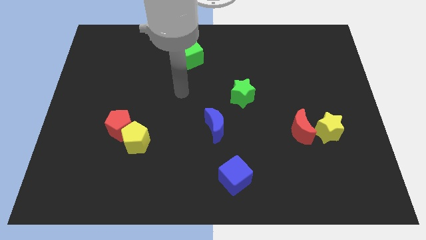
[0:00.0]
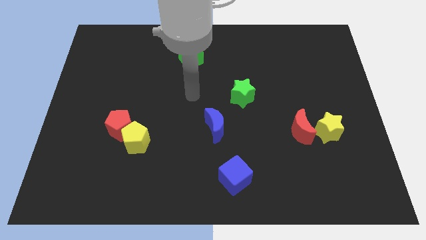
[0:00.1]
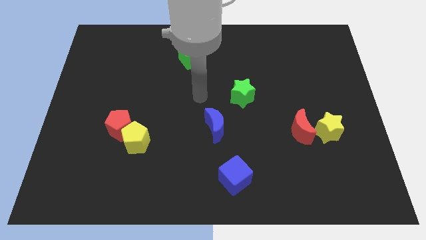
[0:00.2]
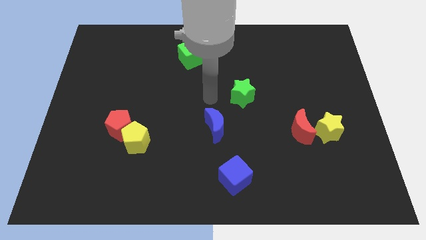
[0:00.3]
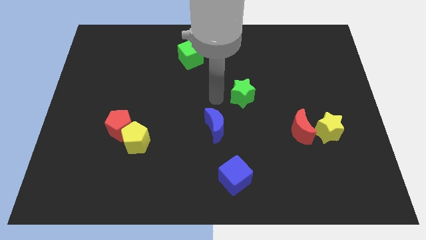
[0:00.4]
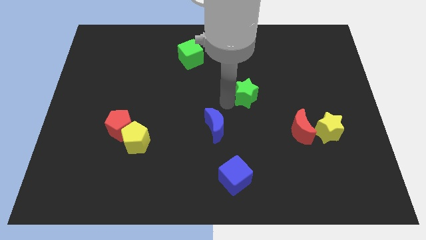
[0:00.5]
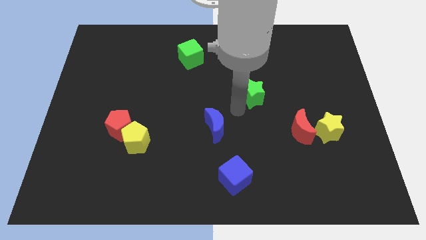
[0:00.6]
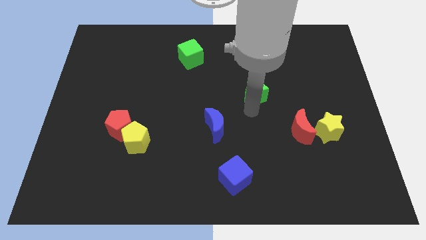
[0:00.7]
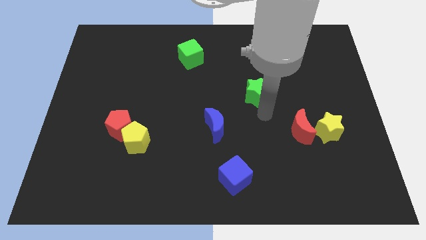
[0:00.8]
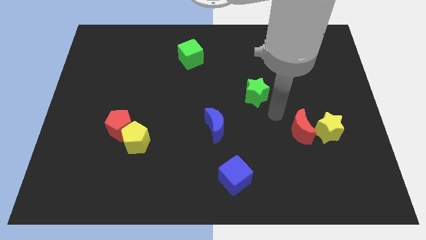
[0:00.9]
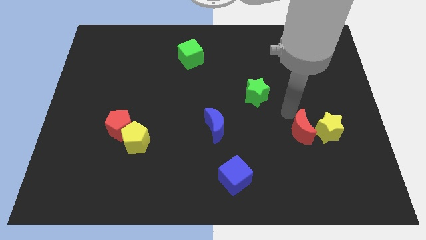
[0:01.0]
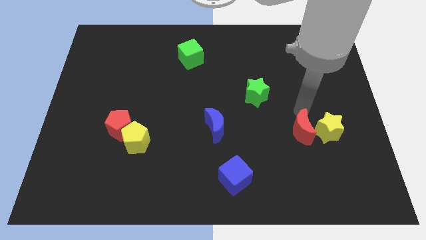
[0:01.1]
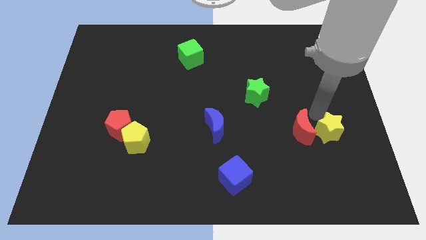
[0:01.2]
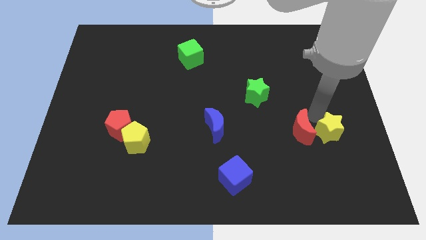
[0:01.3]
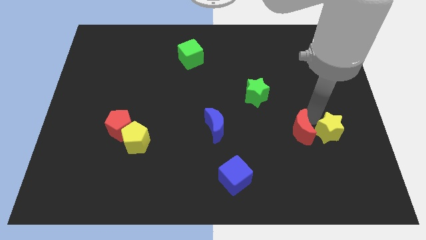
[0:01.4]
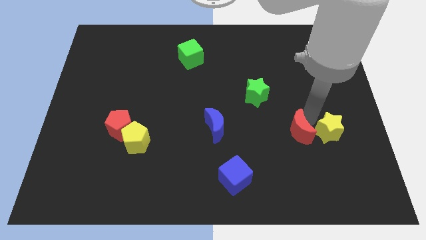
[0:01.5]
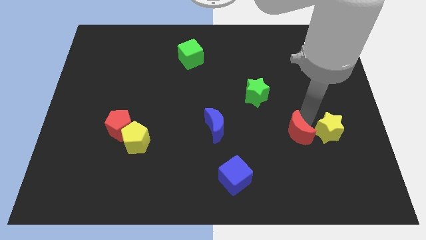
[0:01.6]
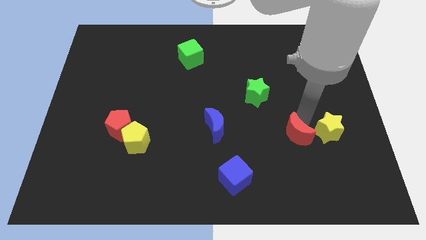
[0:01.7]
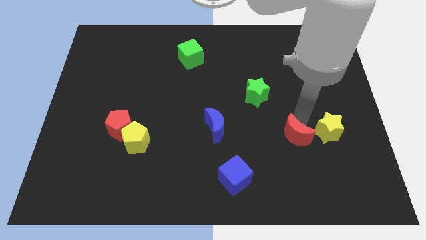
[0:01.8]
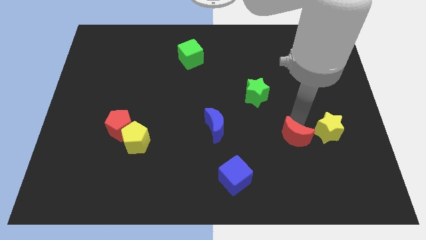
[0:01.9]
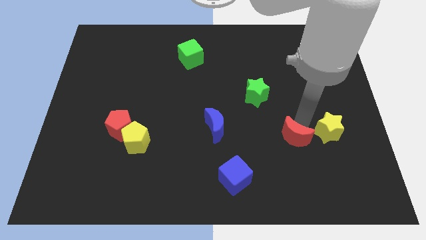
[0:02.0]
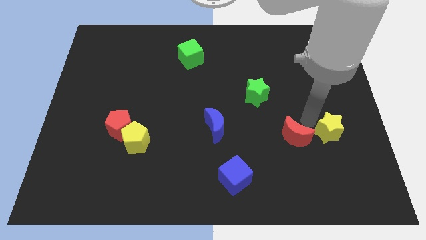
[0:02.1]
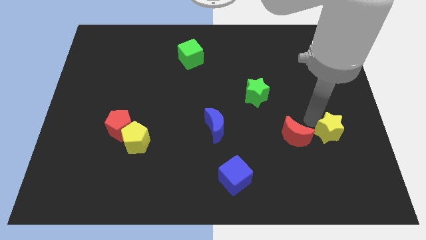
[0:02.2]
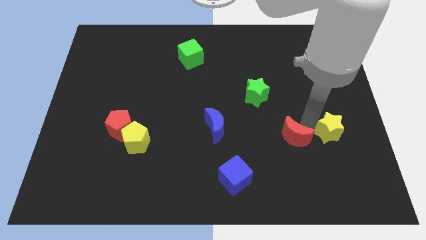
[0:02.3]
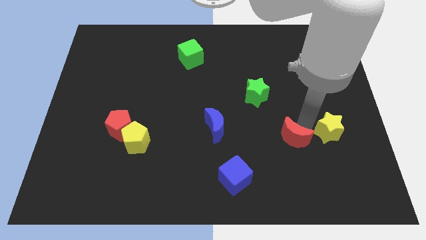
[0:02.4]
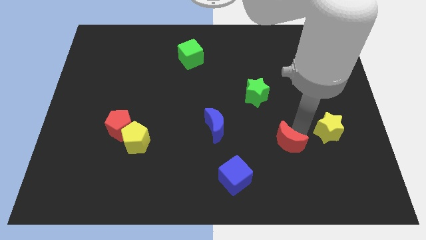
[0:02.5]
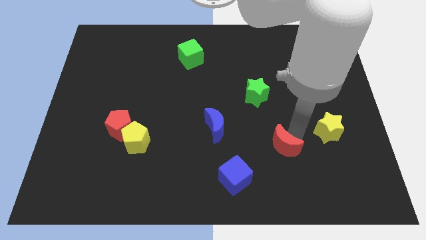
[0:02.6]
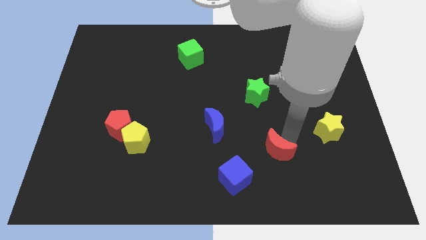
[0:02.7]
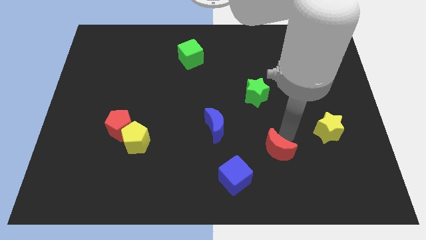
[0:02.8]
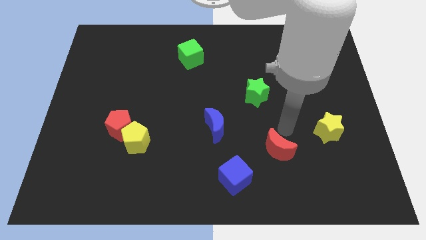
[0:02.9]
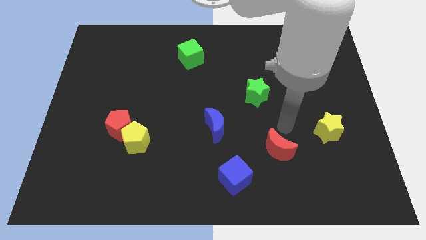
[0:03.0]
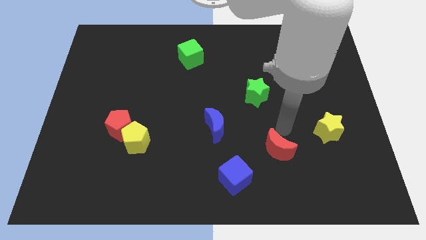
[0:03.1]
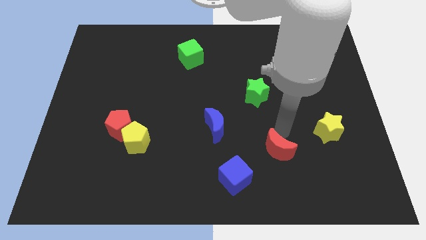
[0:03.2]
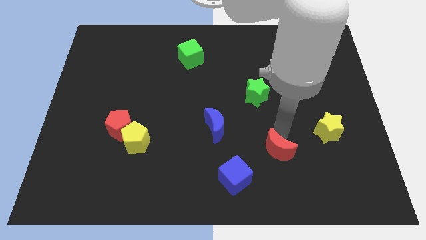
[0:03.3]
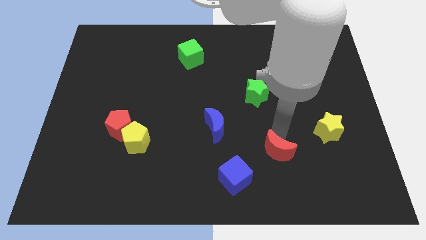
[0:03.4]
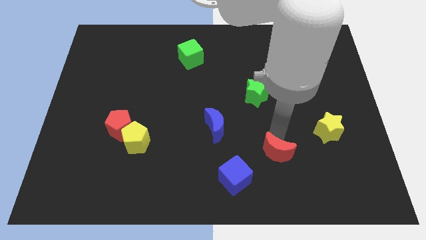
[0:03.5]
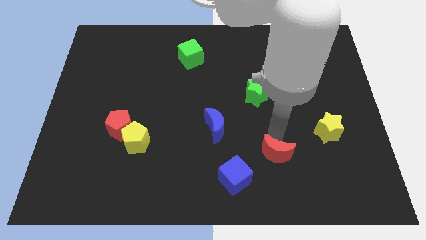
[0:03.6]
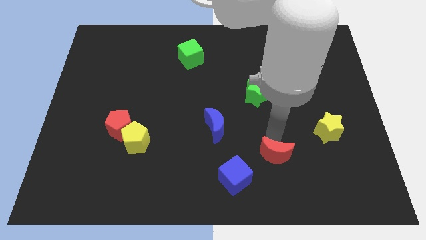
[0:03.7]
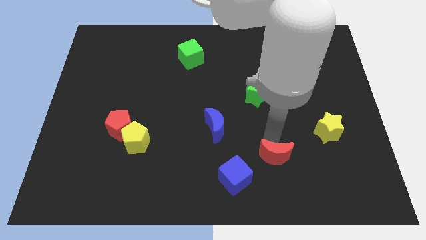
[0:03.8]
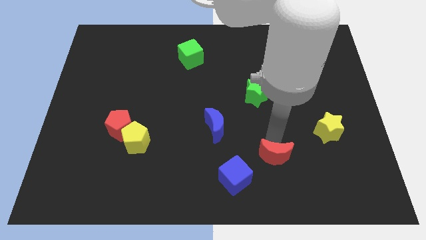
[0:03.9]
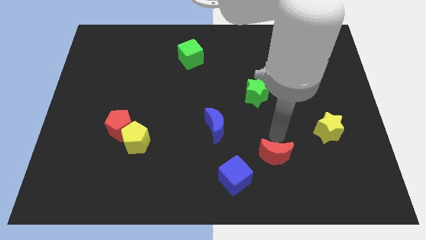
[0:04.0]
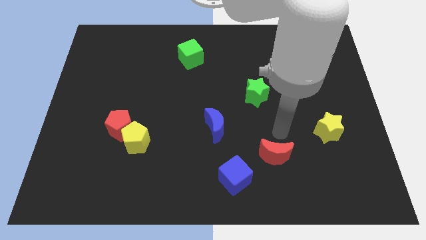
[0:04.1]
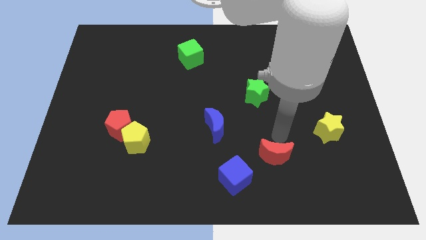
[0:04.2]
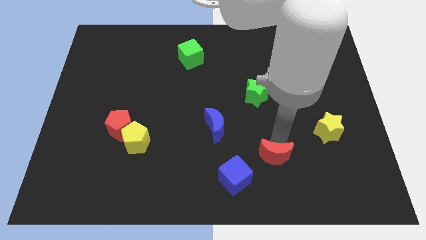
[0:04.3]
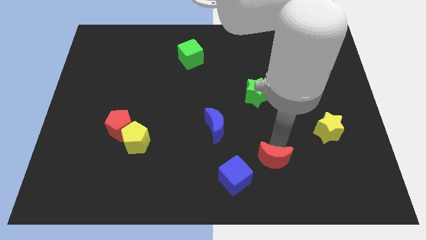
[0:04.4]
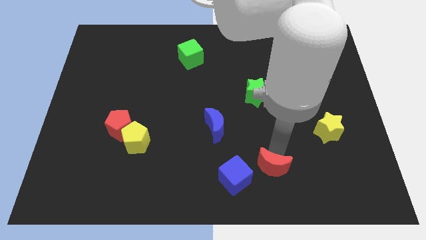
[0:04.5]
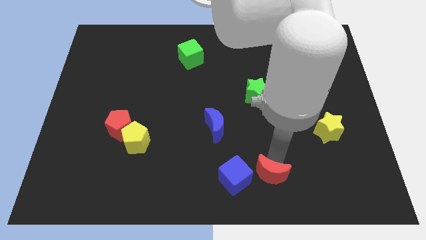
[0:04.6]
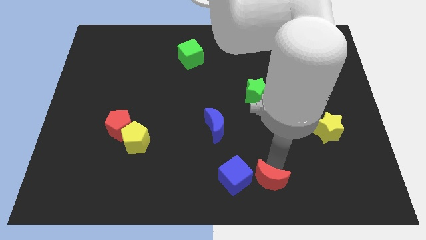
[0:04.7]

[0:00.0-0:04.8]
move the red moon to the bottom side

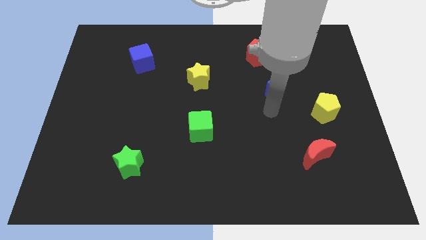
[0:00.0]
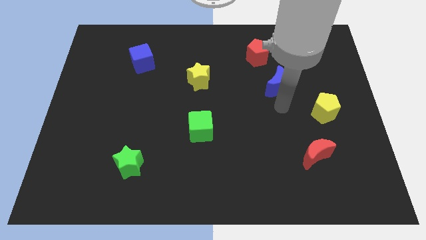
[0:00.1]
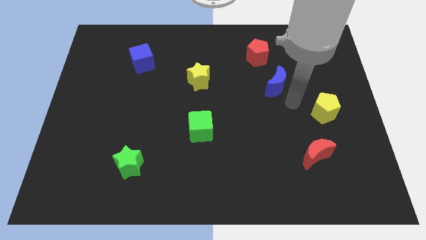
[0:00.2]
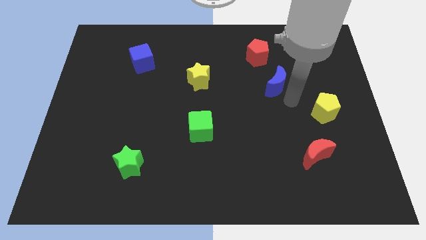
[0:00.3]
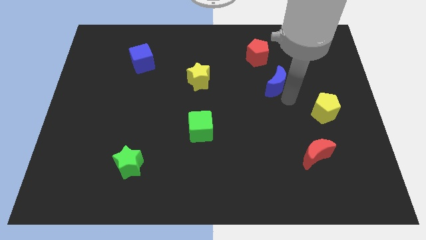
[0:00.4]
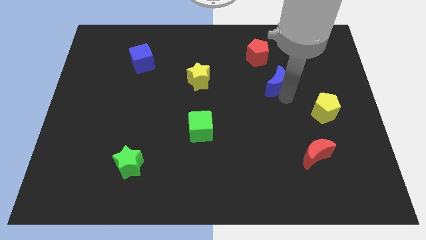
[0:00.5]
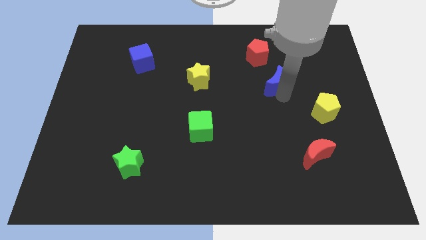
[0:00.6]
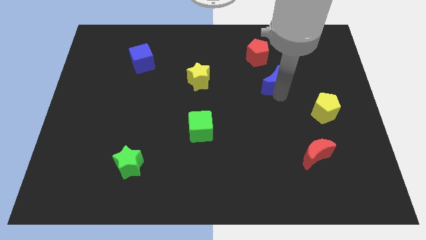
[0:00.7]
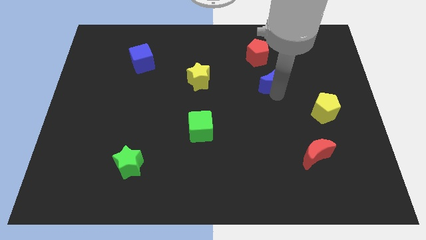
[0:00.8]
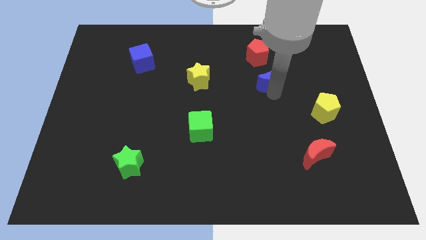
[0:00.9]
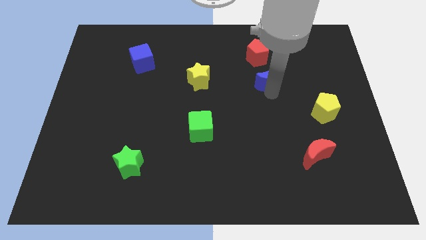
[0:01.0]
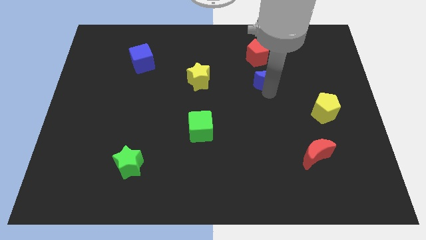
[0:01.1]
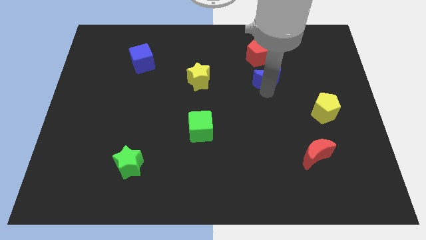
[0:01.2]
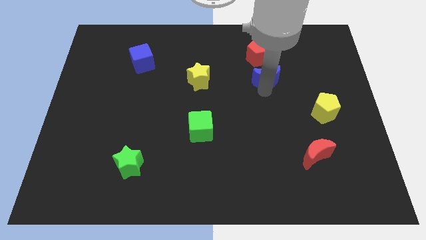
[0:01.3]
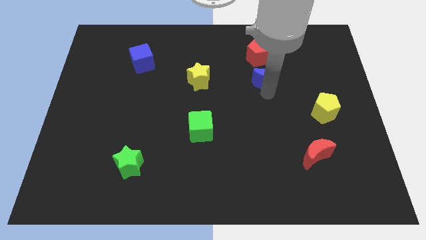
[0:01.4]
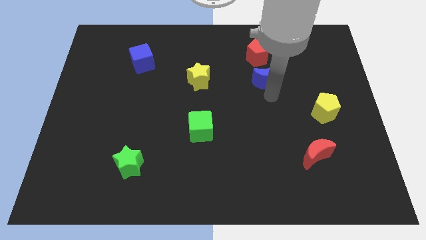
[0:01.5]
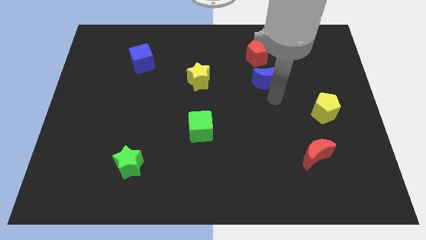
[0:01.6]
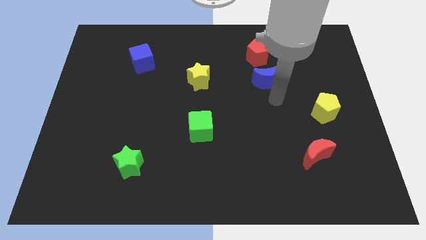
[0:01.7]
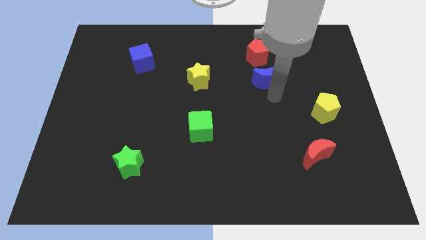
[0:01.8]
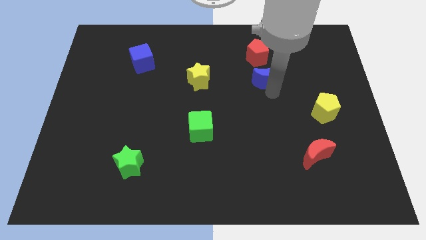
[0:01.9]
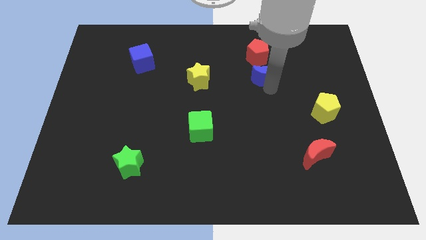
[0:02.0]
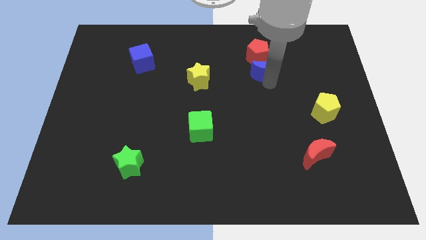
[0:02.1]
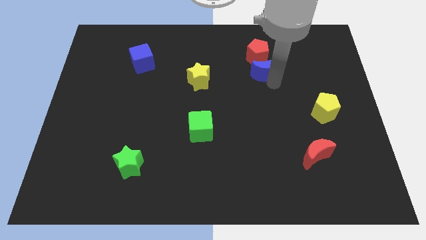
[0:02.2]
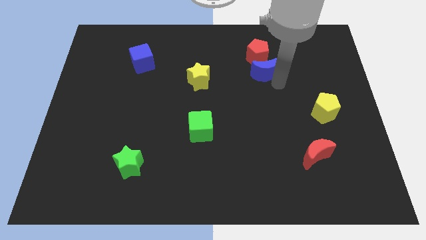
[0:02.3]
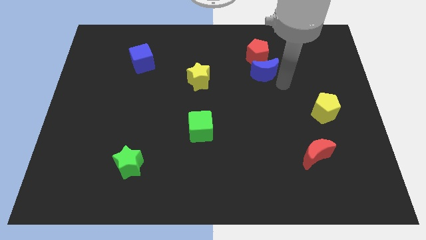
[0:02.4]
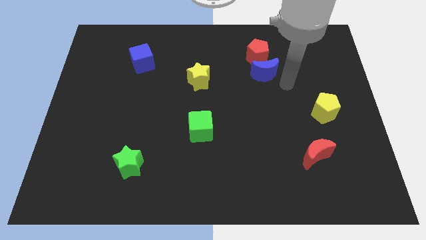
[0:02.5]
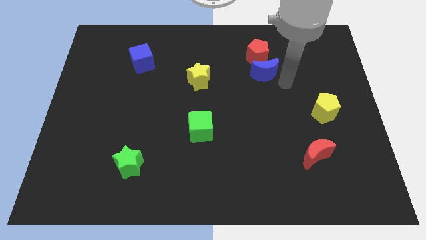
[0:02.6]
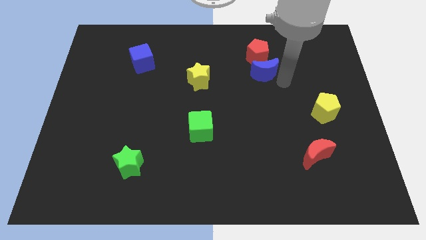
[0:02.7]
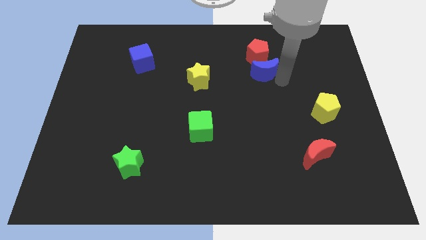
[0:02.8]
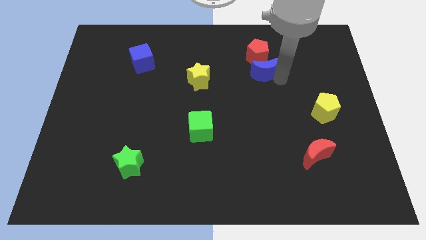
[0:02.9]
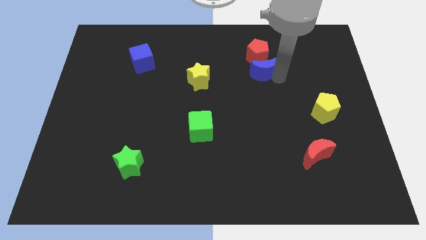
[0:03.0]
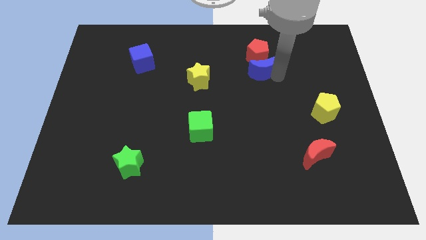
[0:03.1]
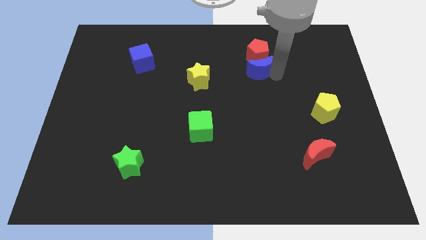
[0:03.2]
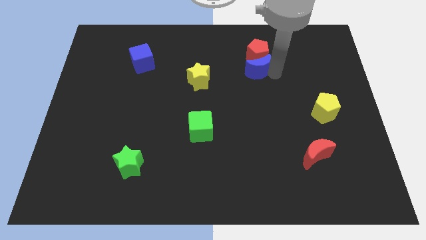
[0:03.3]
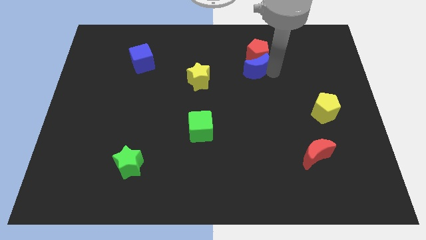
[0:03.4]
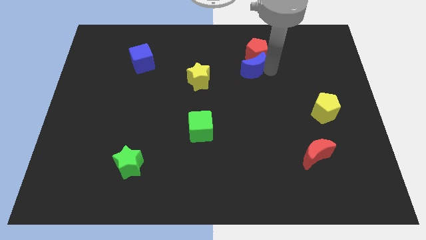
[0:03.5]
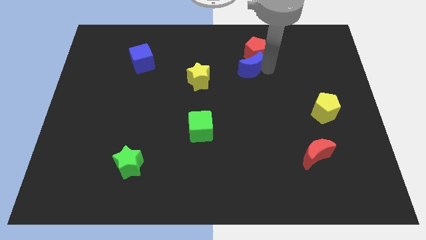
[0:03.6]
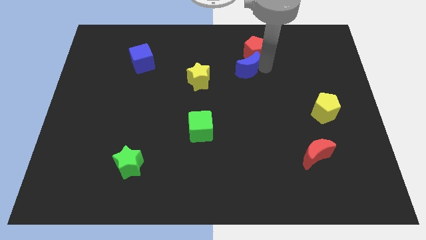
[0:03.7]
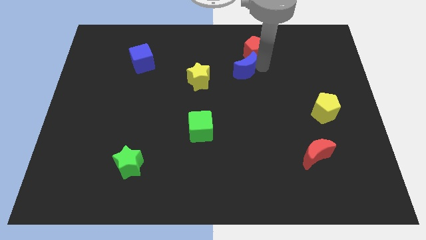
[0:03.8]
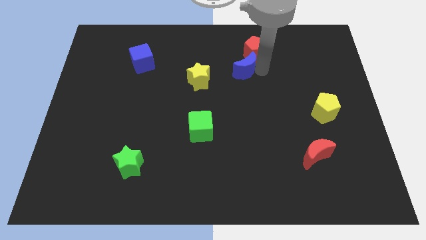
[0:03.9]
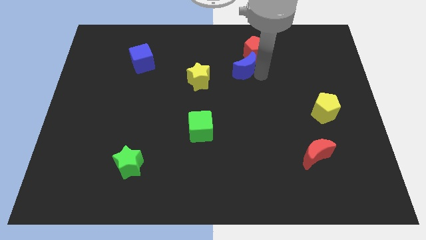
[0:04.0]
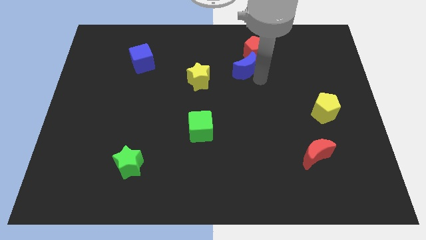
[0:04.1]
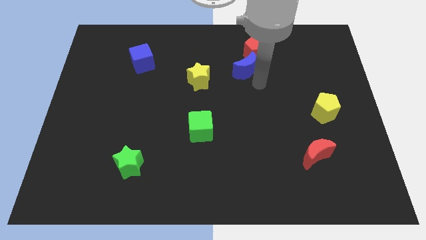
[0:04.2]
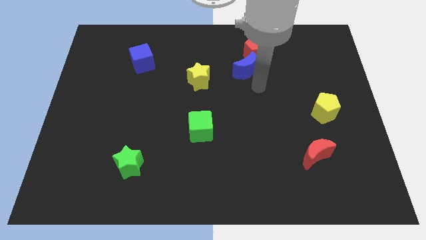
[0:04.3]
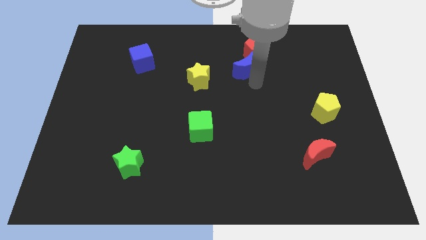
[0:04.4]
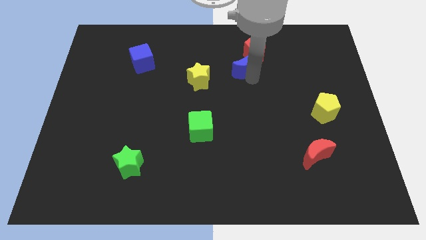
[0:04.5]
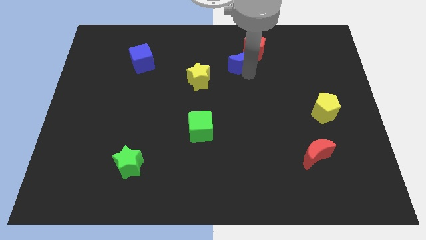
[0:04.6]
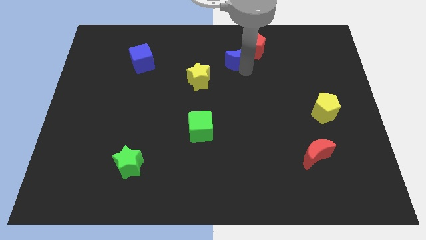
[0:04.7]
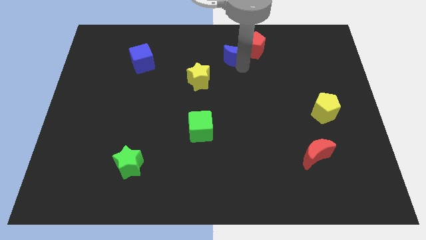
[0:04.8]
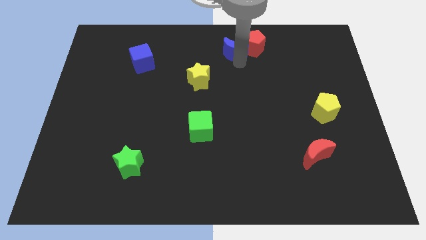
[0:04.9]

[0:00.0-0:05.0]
put the blue moon to the top
